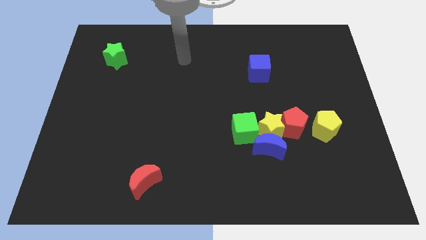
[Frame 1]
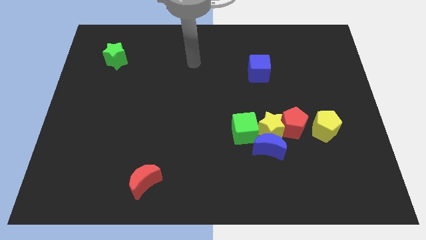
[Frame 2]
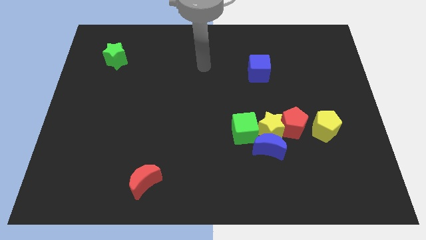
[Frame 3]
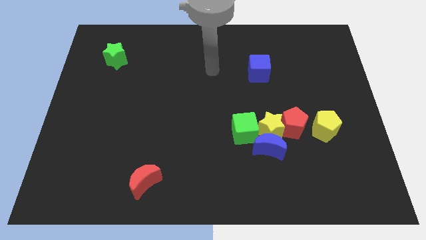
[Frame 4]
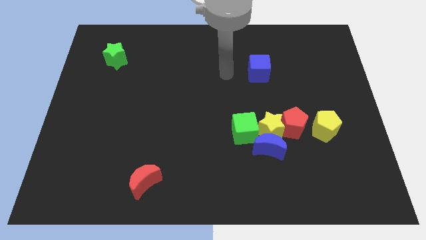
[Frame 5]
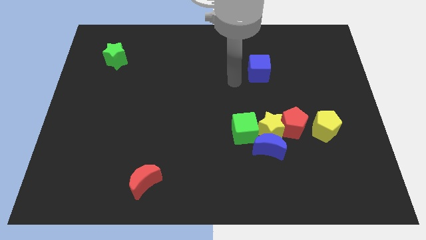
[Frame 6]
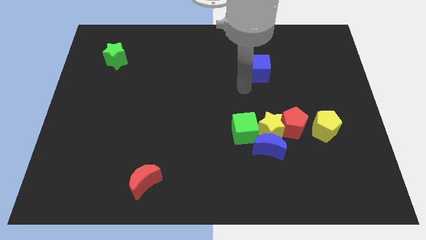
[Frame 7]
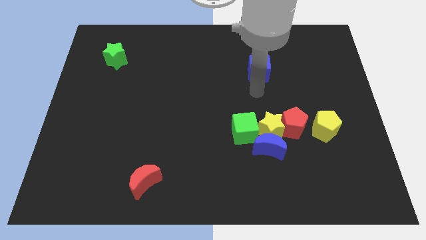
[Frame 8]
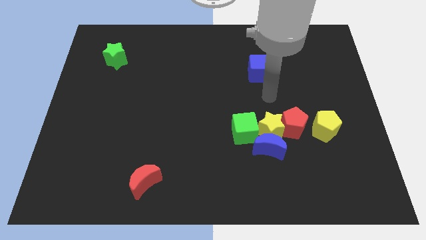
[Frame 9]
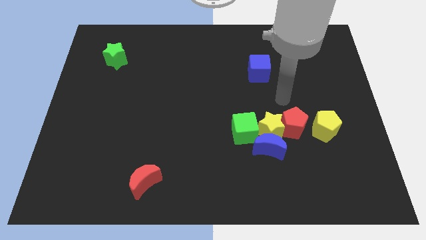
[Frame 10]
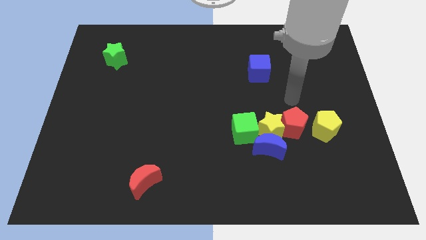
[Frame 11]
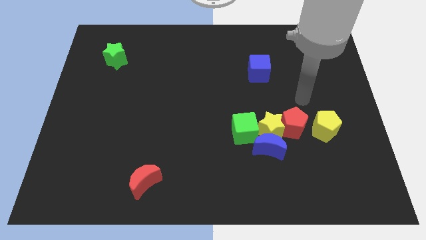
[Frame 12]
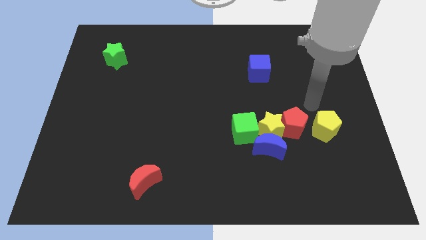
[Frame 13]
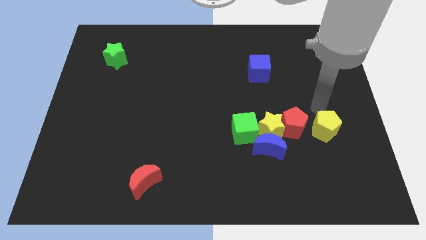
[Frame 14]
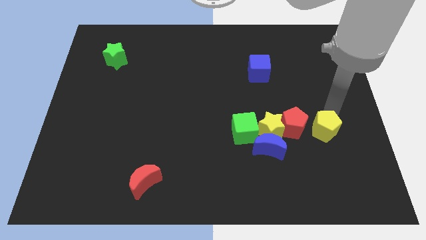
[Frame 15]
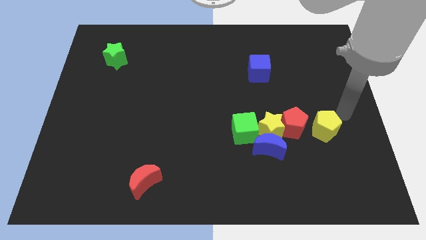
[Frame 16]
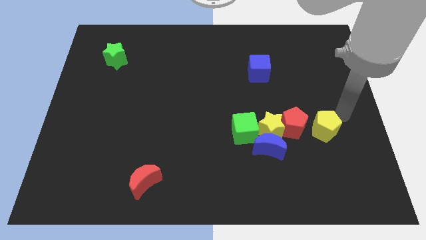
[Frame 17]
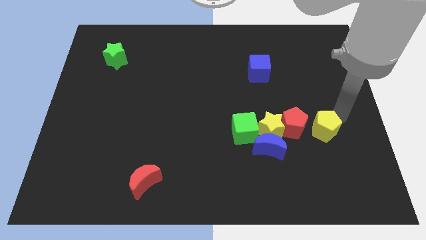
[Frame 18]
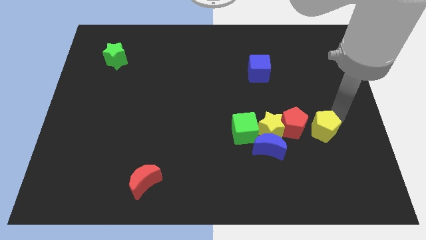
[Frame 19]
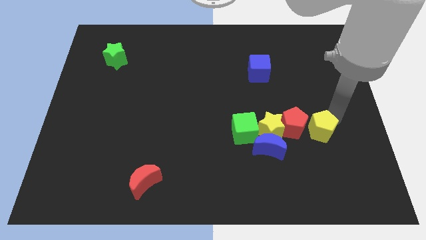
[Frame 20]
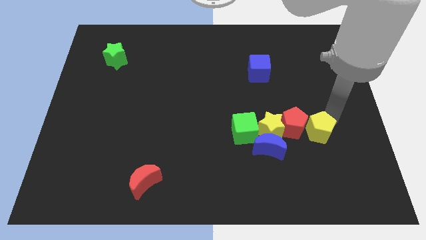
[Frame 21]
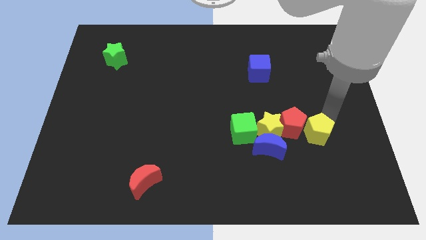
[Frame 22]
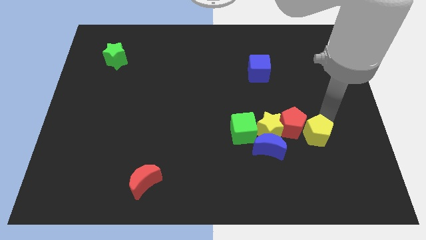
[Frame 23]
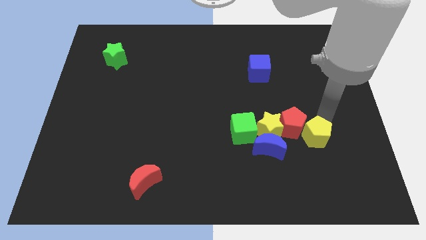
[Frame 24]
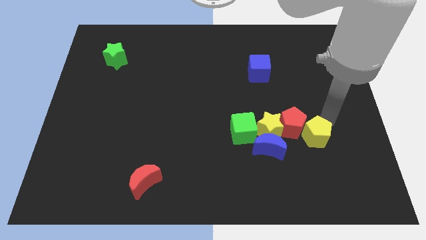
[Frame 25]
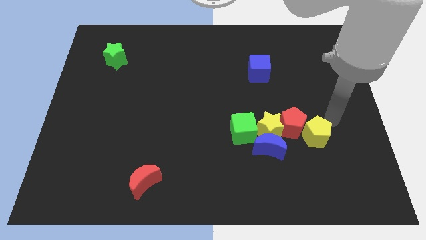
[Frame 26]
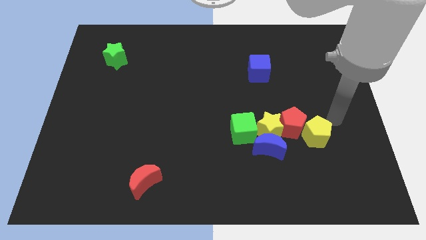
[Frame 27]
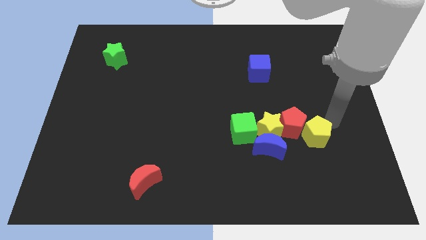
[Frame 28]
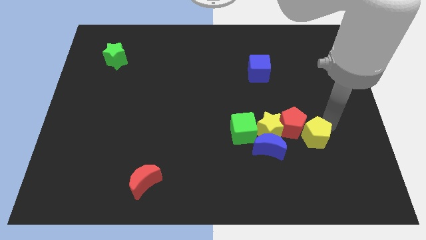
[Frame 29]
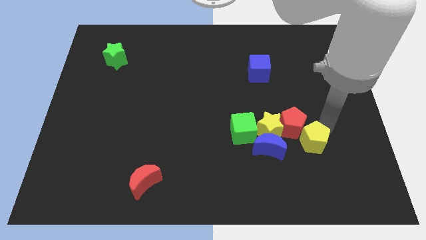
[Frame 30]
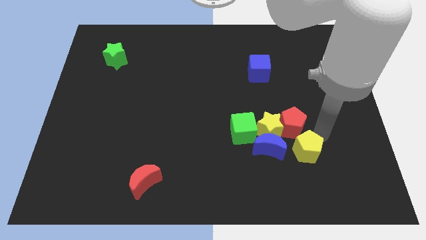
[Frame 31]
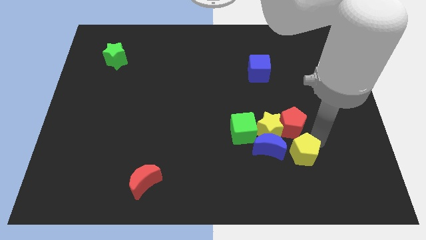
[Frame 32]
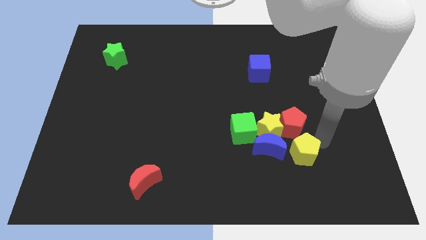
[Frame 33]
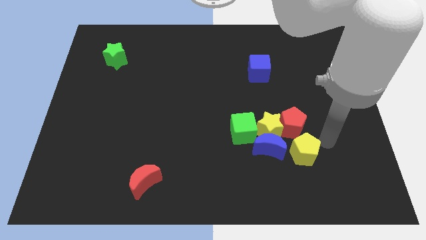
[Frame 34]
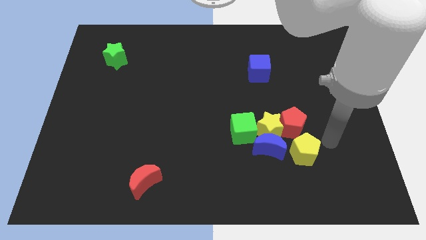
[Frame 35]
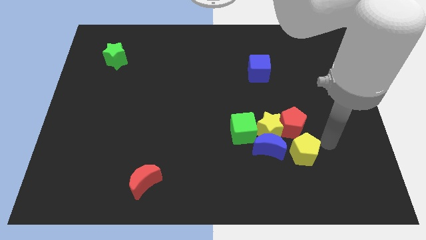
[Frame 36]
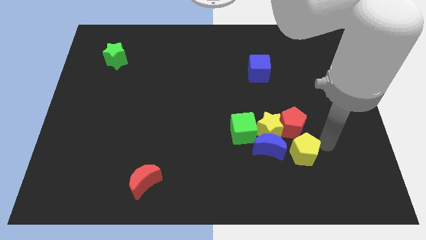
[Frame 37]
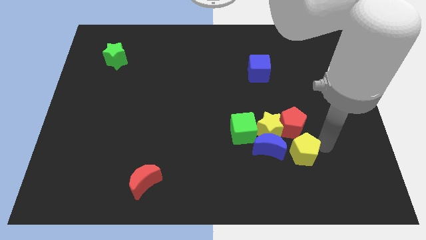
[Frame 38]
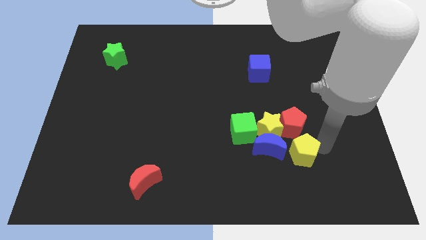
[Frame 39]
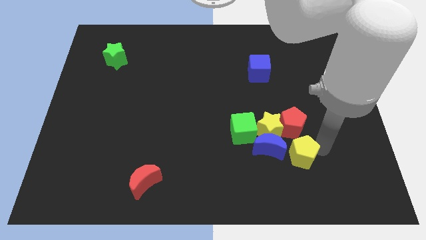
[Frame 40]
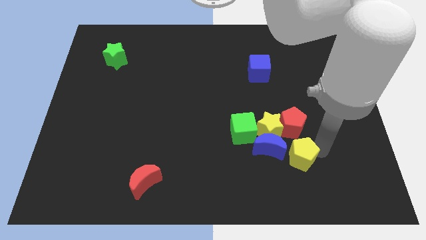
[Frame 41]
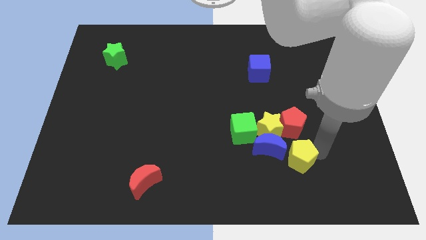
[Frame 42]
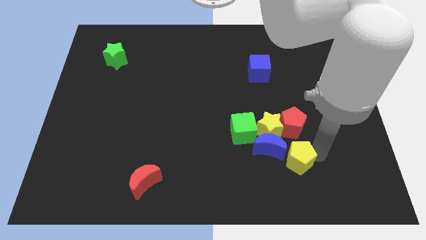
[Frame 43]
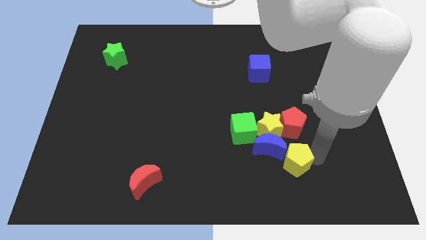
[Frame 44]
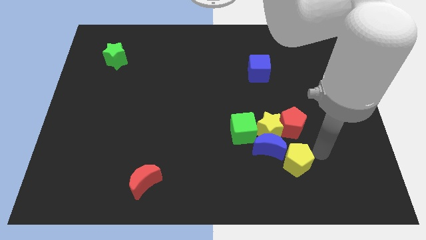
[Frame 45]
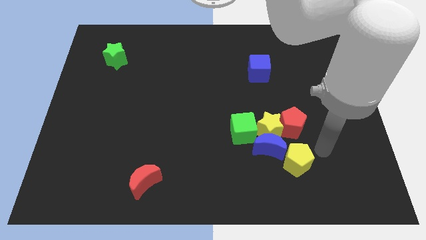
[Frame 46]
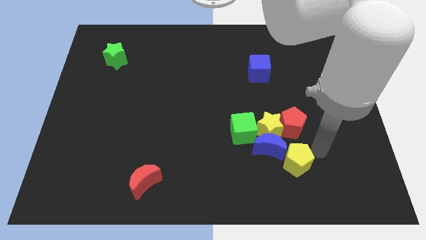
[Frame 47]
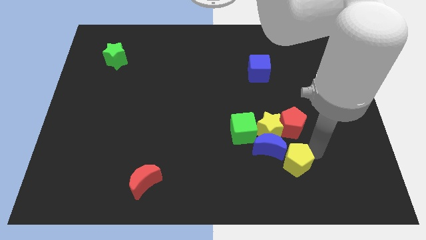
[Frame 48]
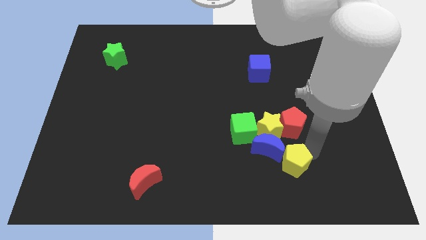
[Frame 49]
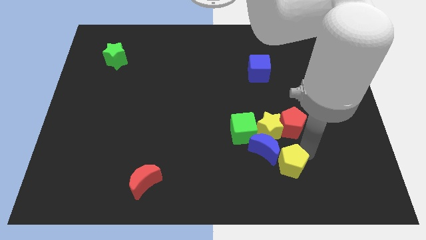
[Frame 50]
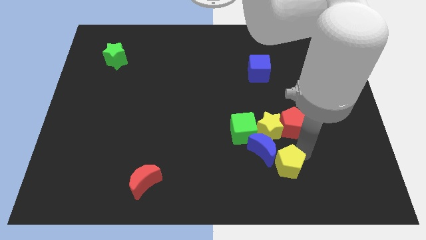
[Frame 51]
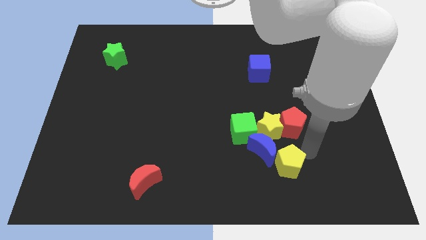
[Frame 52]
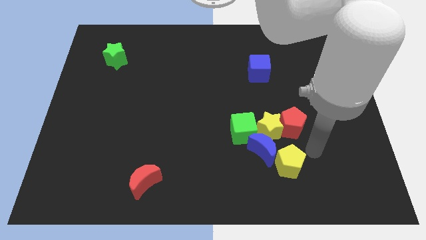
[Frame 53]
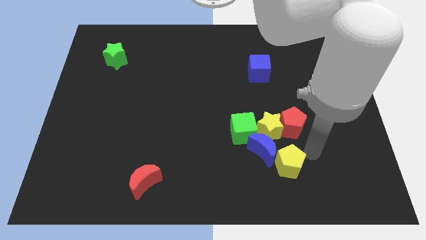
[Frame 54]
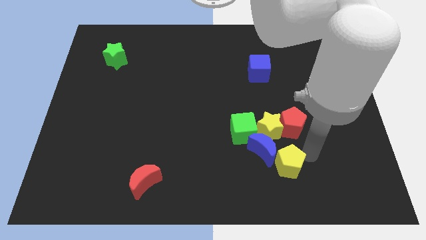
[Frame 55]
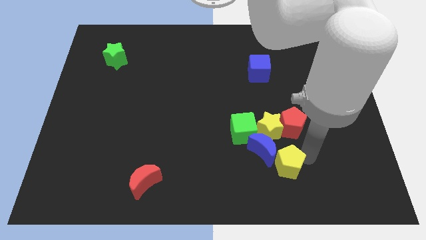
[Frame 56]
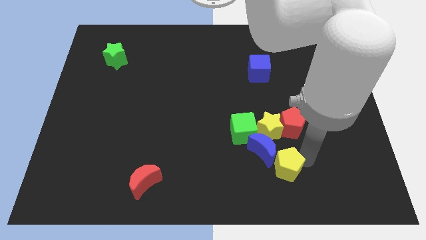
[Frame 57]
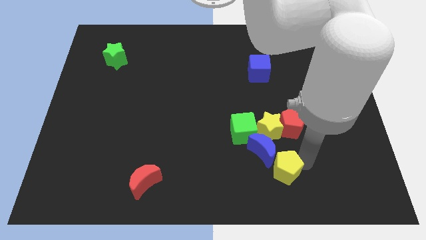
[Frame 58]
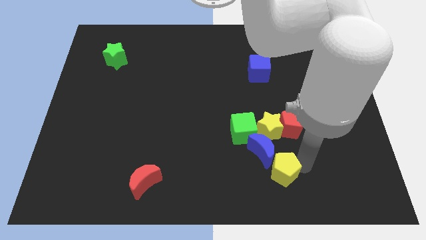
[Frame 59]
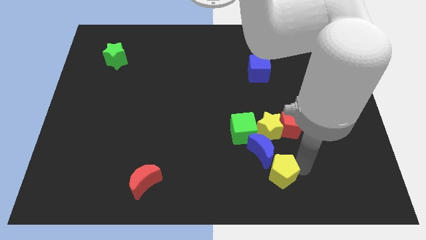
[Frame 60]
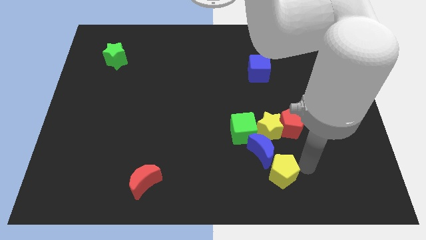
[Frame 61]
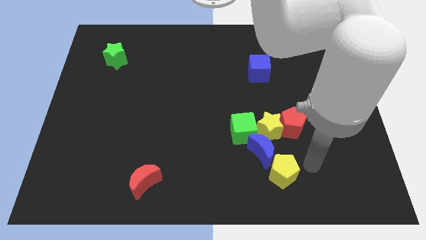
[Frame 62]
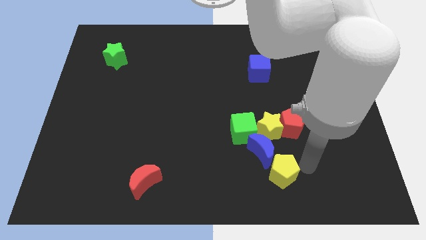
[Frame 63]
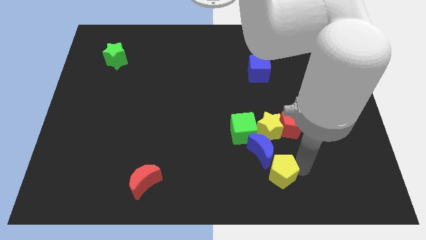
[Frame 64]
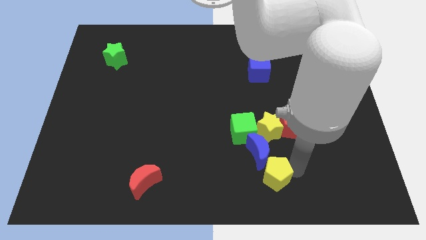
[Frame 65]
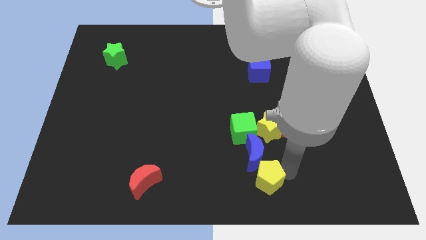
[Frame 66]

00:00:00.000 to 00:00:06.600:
move the yellow pentagon to the bottom
